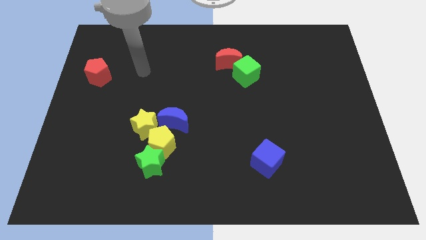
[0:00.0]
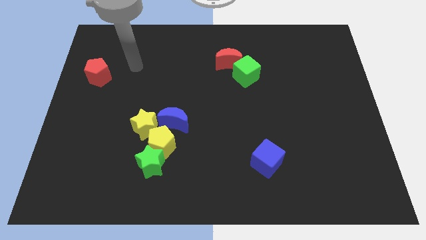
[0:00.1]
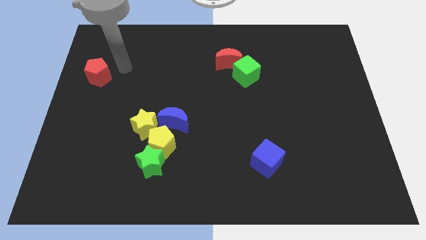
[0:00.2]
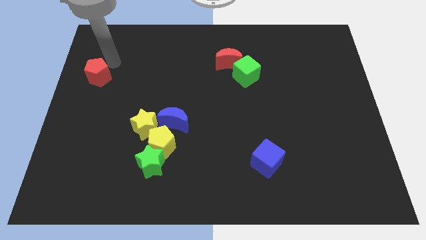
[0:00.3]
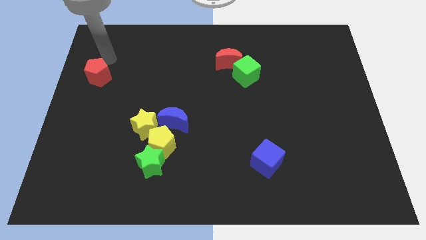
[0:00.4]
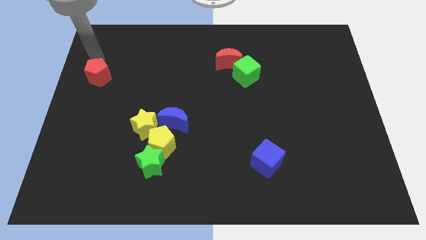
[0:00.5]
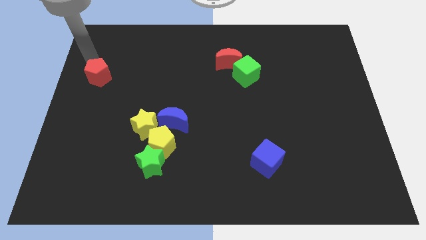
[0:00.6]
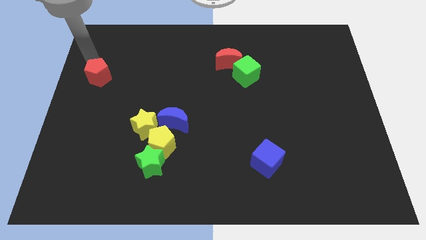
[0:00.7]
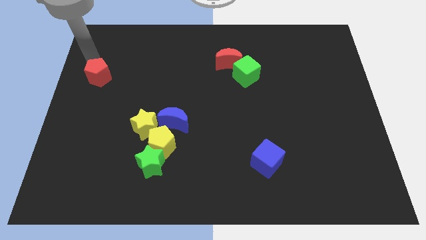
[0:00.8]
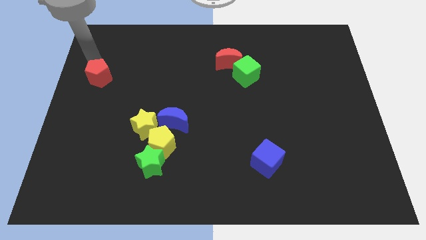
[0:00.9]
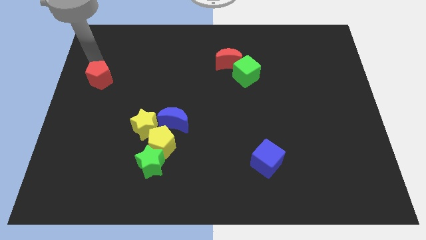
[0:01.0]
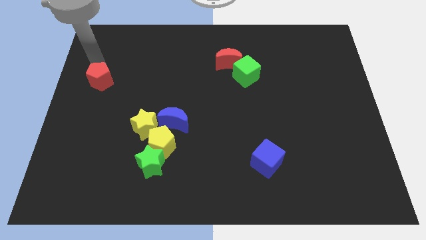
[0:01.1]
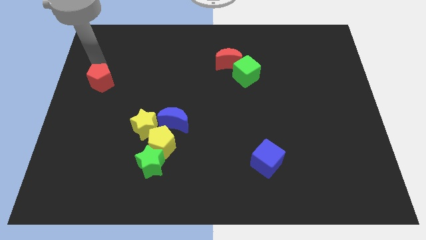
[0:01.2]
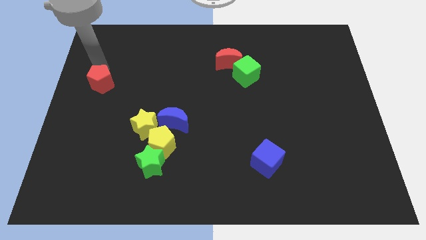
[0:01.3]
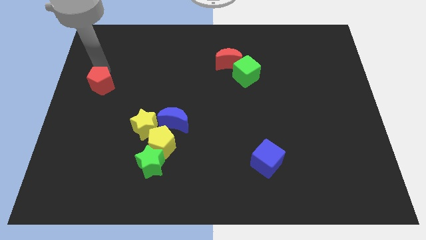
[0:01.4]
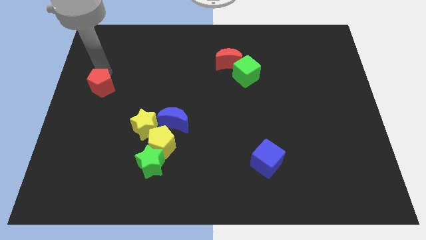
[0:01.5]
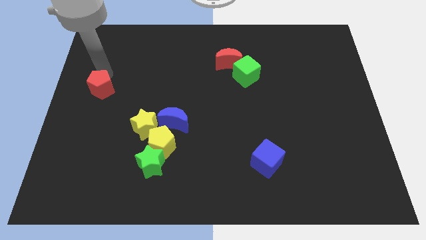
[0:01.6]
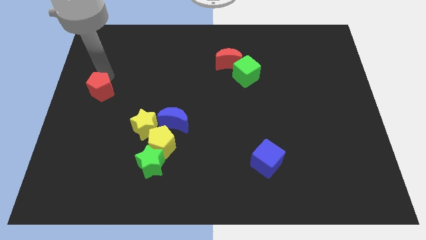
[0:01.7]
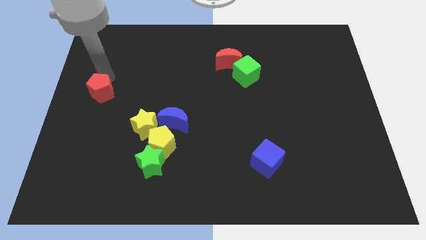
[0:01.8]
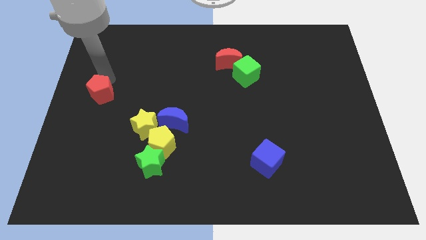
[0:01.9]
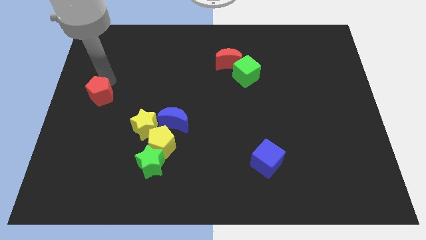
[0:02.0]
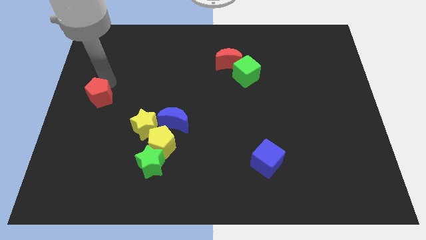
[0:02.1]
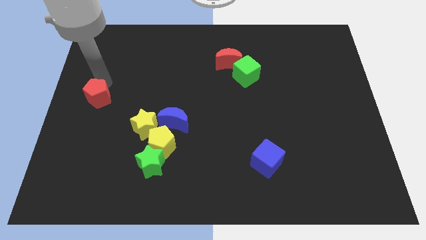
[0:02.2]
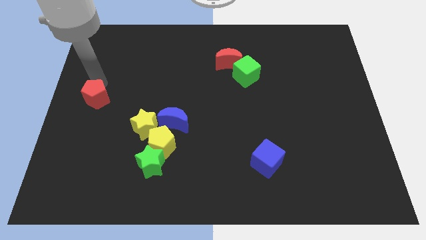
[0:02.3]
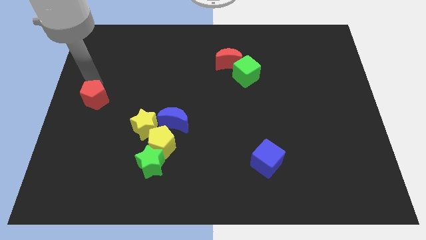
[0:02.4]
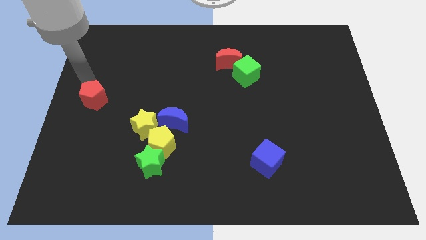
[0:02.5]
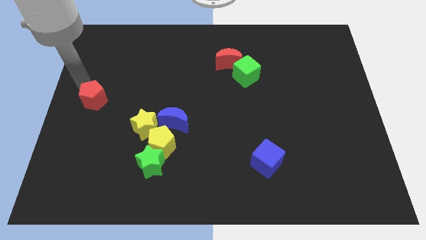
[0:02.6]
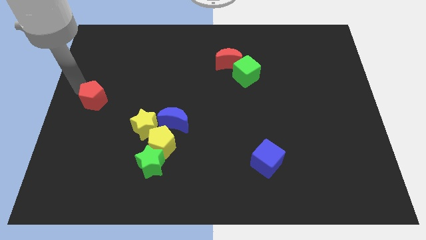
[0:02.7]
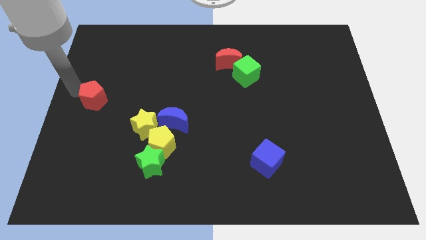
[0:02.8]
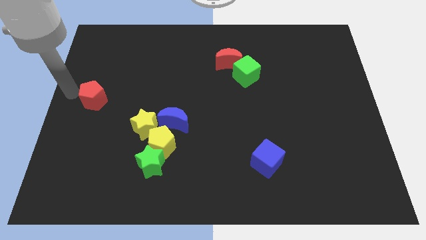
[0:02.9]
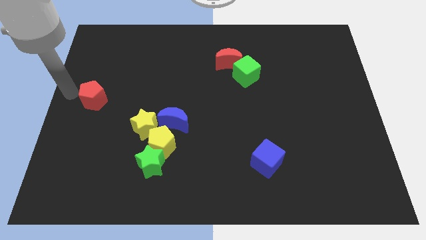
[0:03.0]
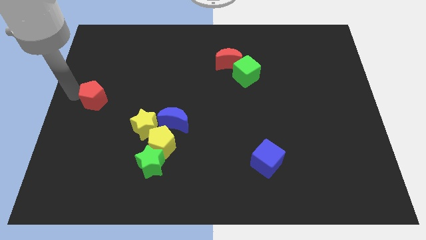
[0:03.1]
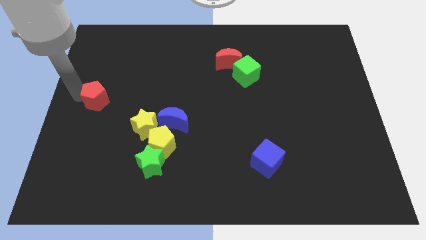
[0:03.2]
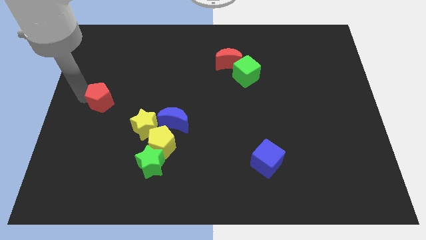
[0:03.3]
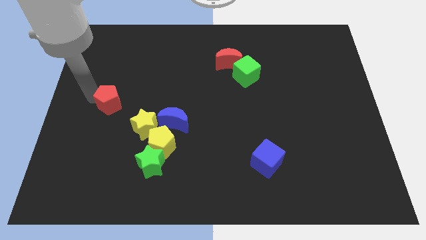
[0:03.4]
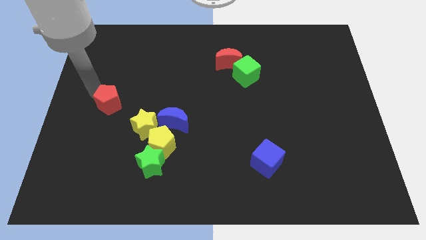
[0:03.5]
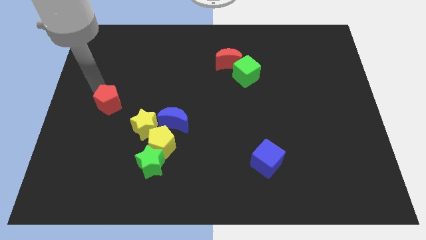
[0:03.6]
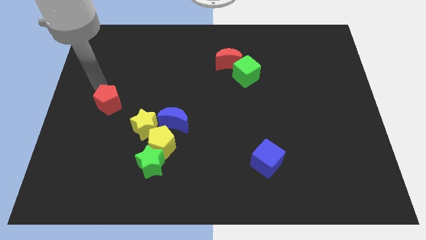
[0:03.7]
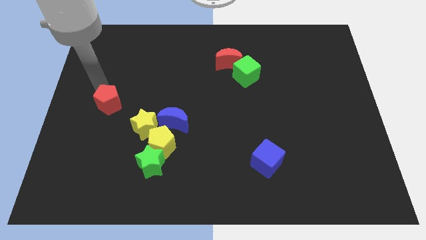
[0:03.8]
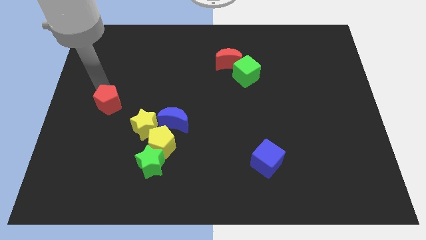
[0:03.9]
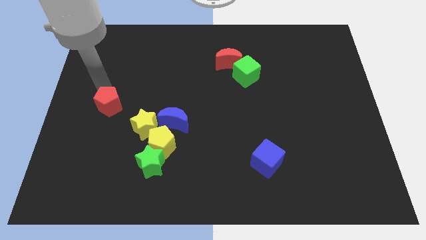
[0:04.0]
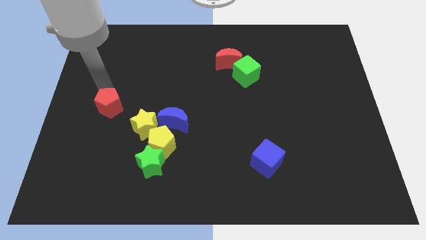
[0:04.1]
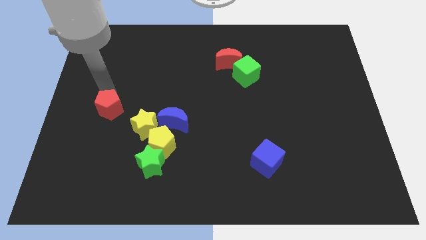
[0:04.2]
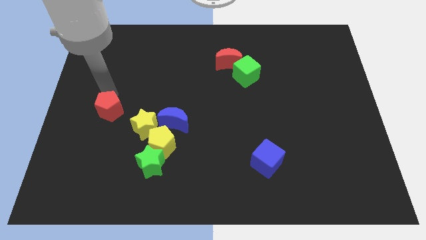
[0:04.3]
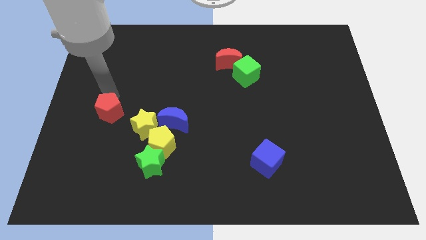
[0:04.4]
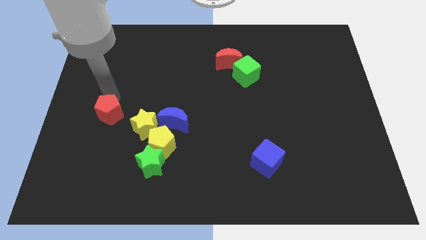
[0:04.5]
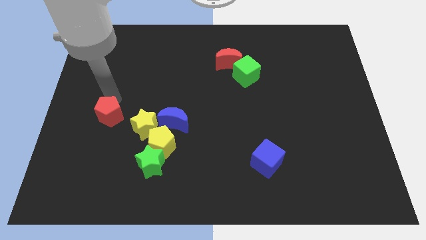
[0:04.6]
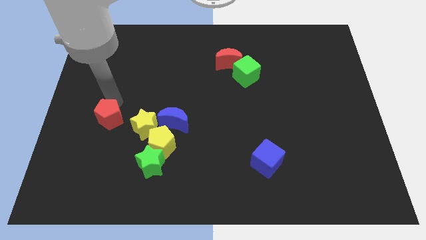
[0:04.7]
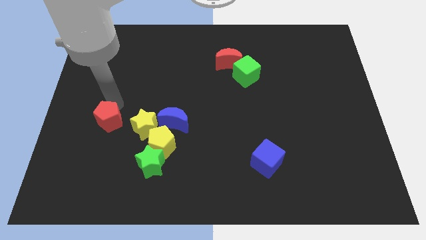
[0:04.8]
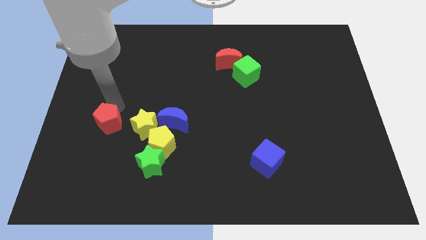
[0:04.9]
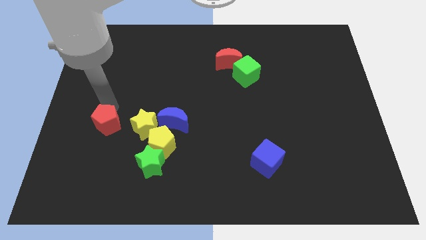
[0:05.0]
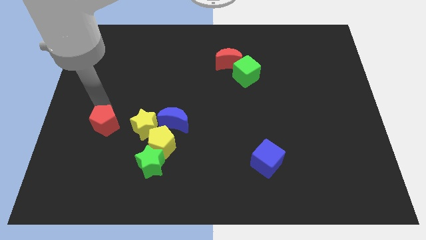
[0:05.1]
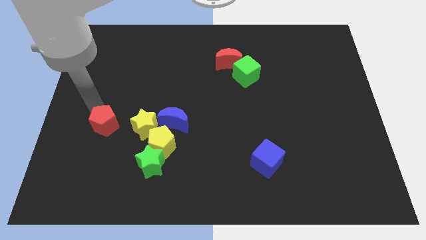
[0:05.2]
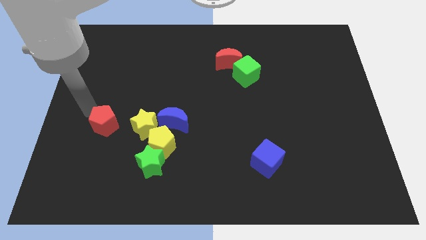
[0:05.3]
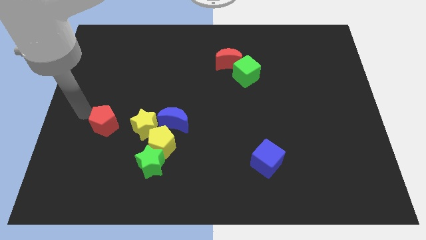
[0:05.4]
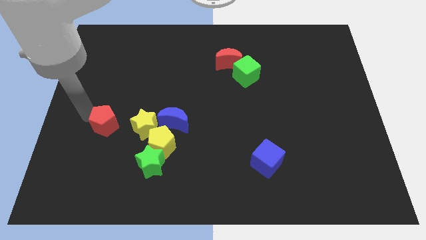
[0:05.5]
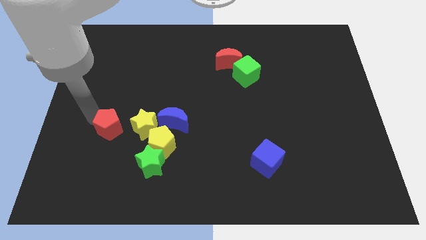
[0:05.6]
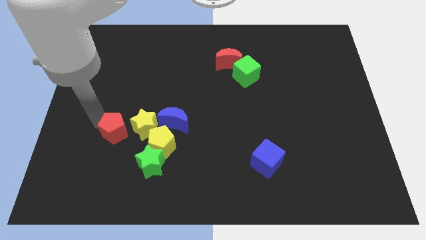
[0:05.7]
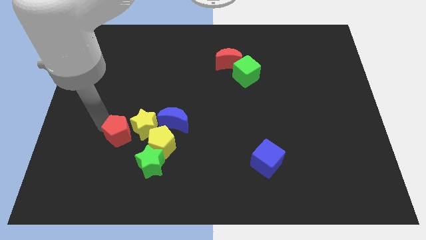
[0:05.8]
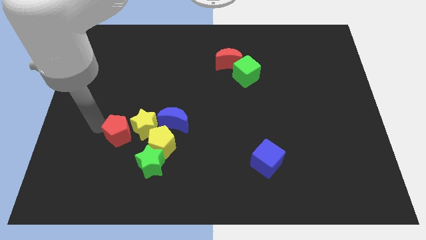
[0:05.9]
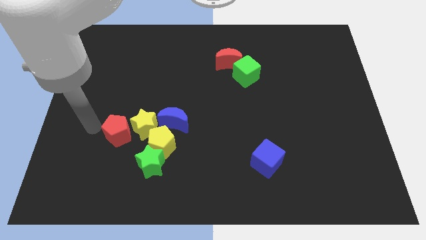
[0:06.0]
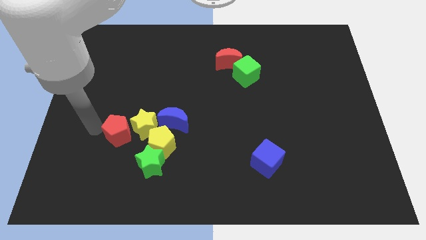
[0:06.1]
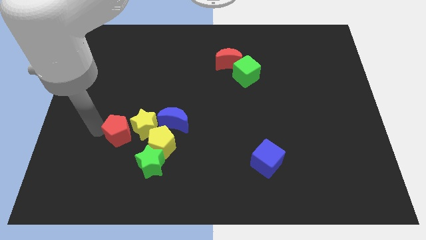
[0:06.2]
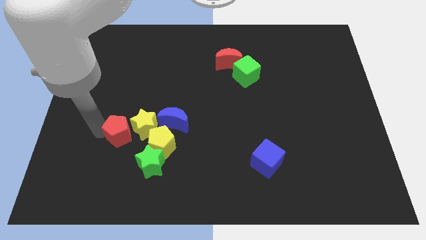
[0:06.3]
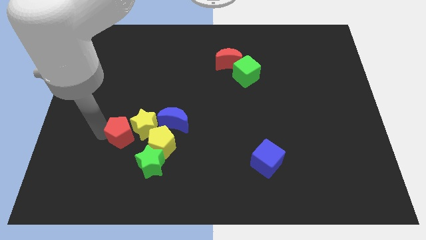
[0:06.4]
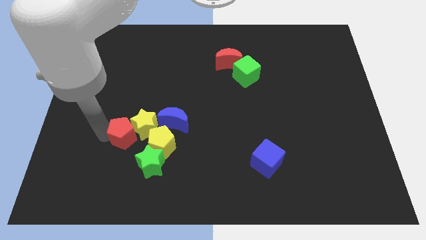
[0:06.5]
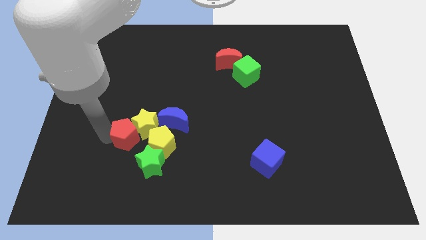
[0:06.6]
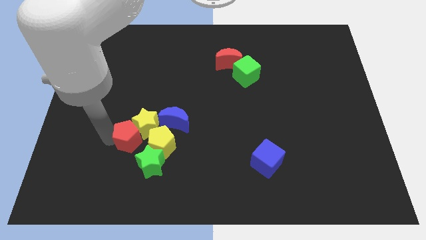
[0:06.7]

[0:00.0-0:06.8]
move the red pentagon to the bottom left side of the blue moon

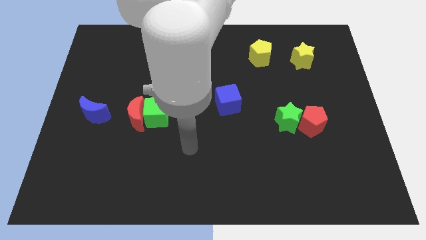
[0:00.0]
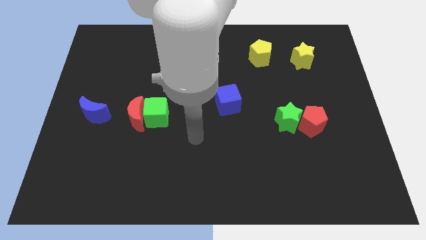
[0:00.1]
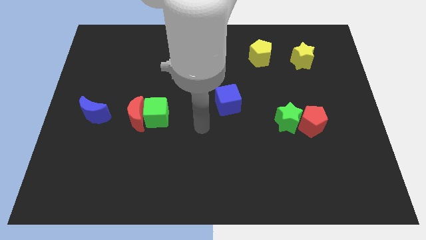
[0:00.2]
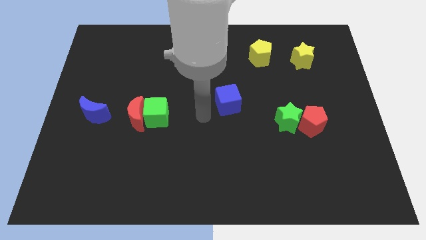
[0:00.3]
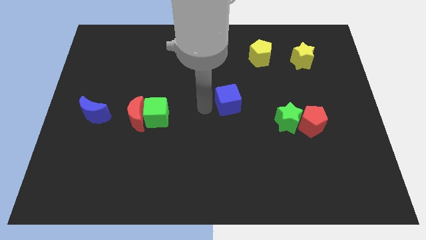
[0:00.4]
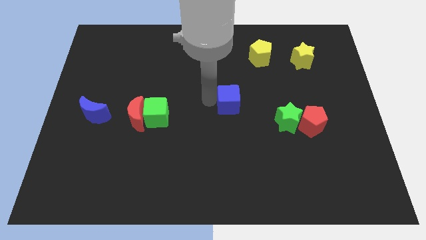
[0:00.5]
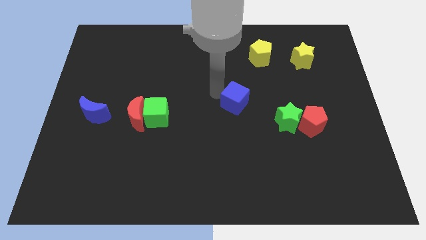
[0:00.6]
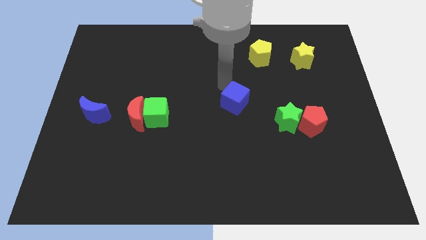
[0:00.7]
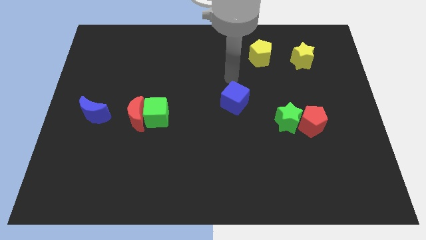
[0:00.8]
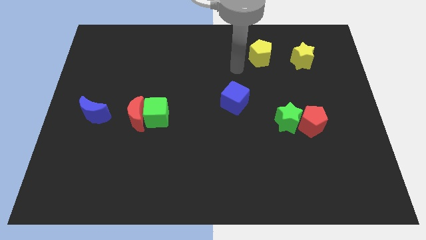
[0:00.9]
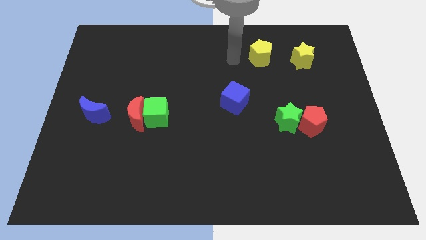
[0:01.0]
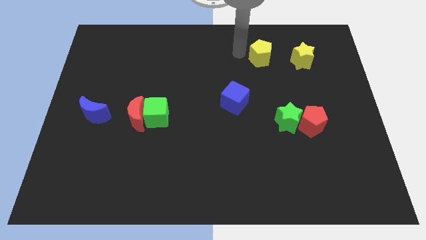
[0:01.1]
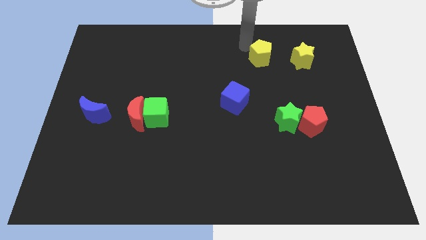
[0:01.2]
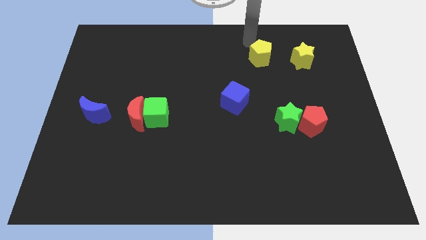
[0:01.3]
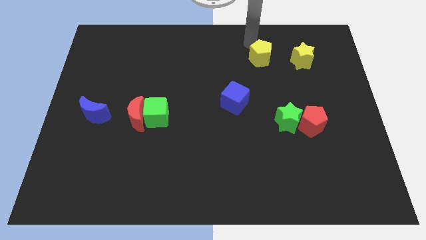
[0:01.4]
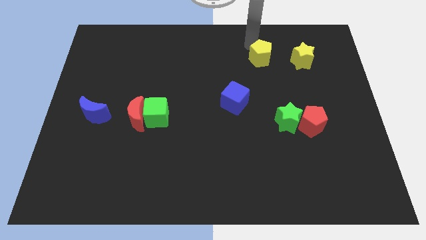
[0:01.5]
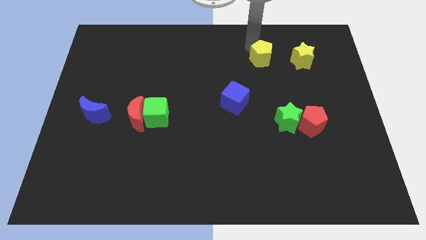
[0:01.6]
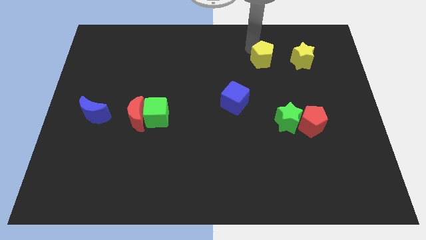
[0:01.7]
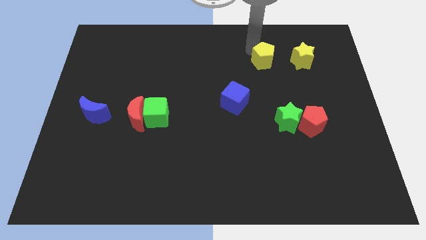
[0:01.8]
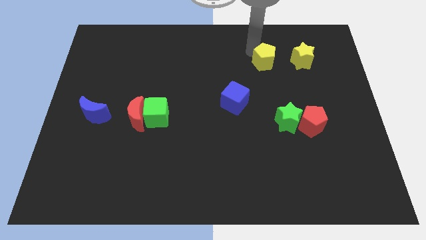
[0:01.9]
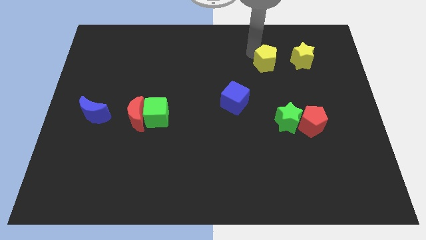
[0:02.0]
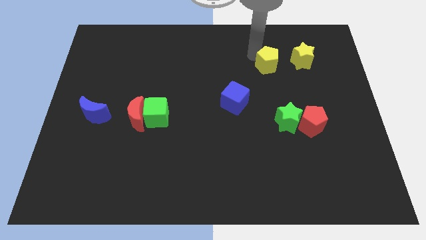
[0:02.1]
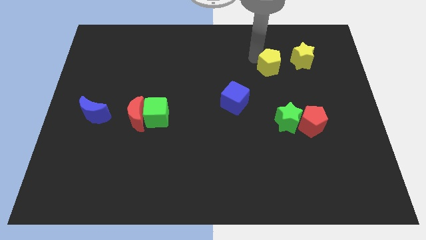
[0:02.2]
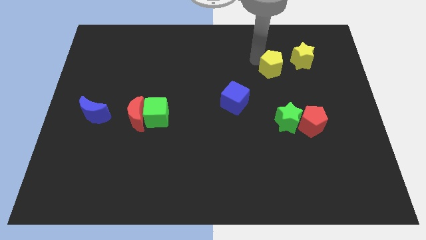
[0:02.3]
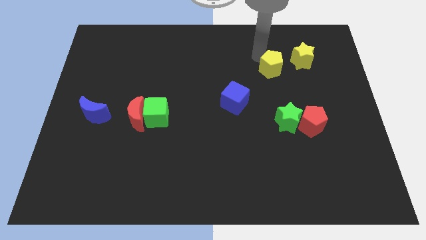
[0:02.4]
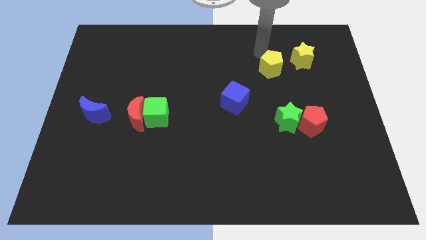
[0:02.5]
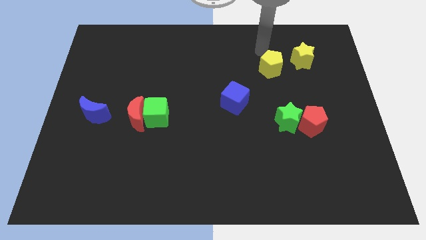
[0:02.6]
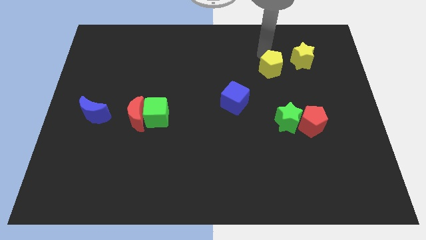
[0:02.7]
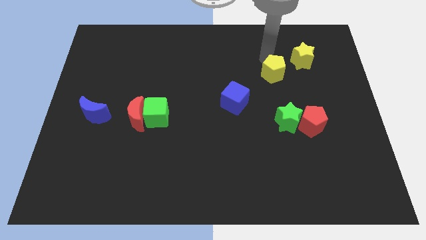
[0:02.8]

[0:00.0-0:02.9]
slide the yellow pentagon above the green star
